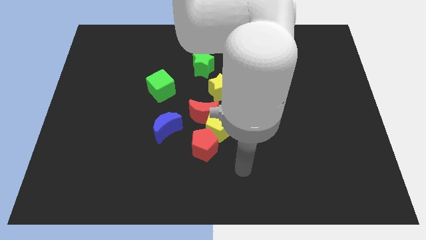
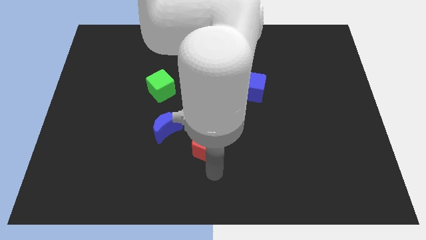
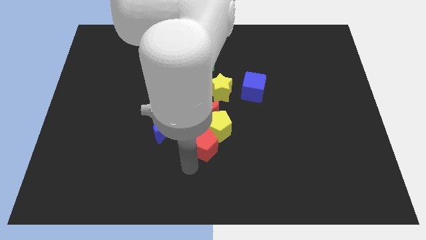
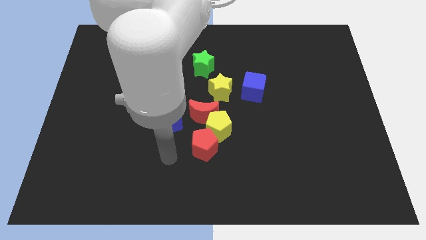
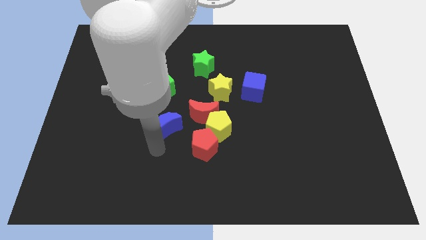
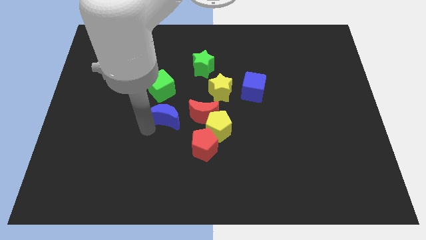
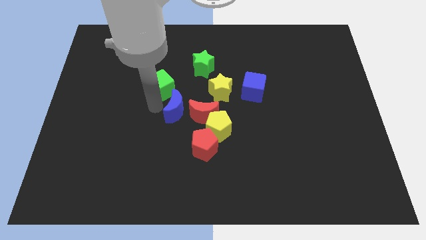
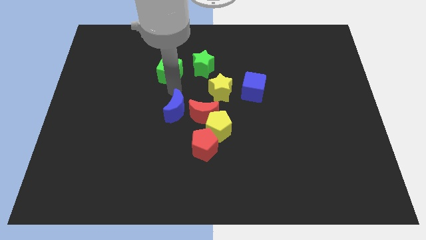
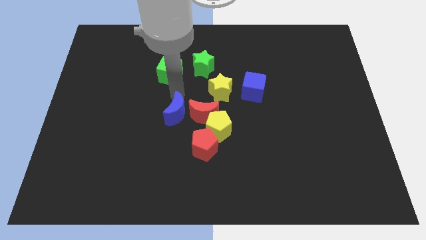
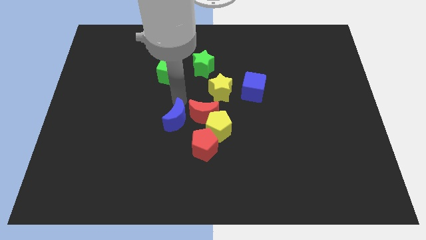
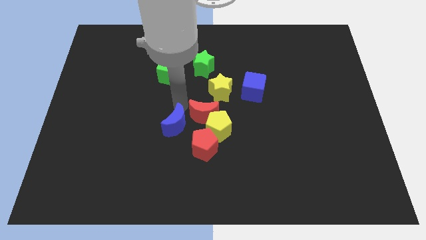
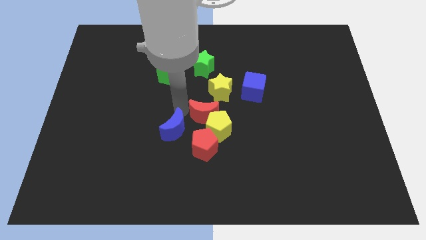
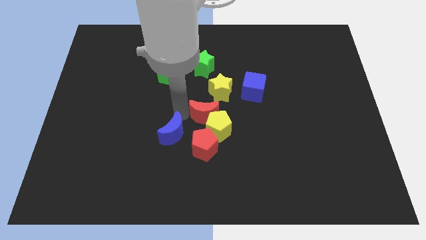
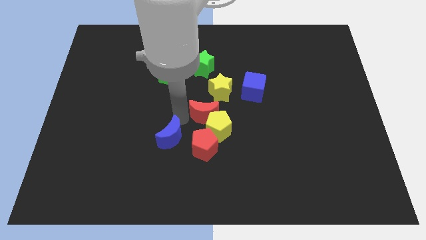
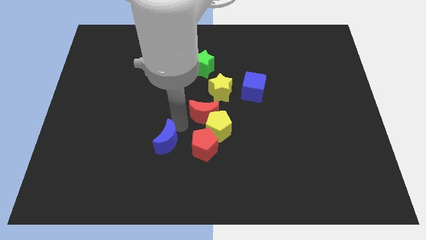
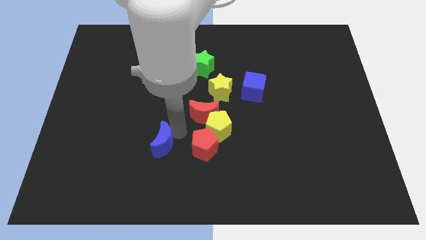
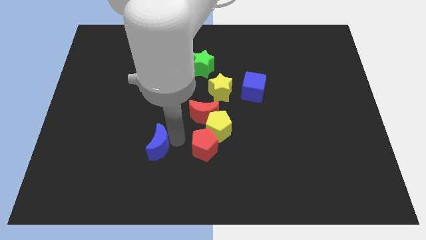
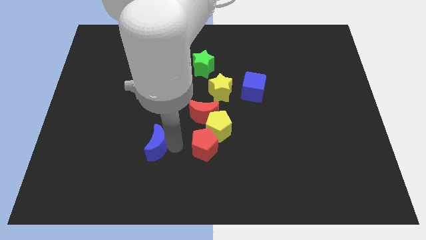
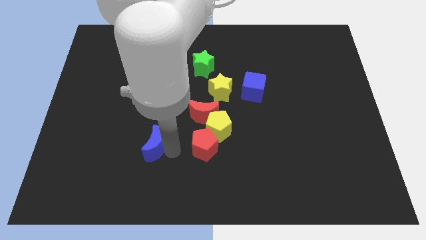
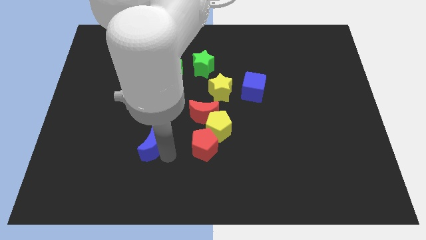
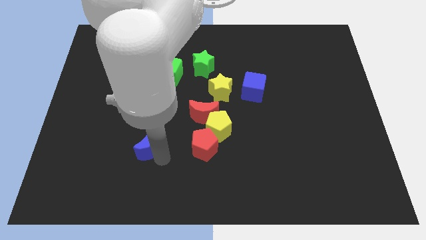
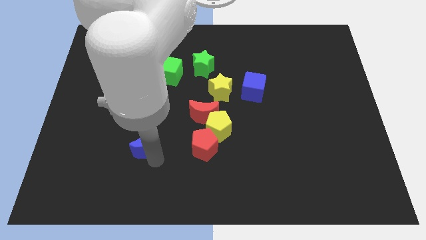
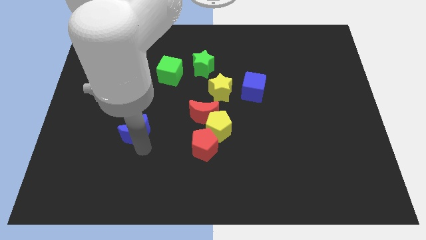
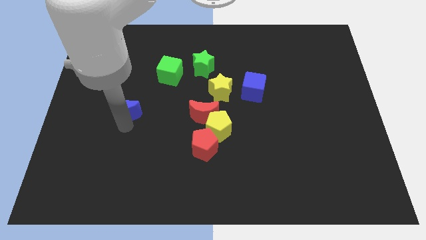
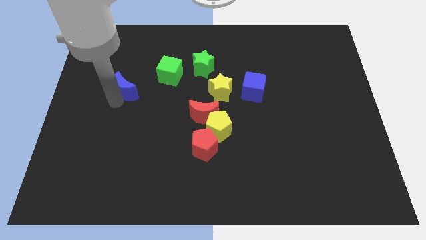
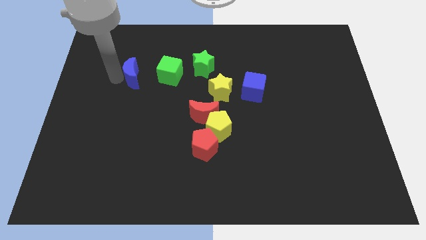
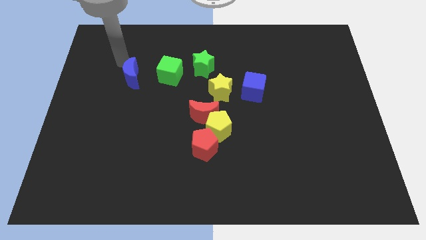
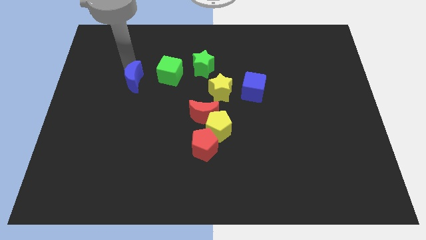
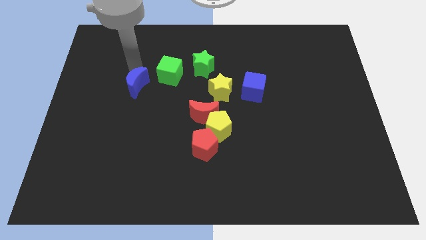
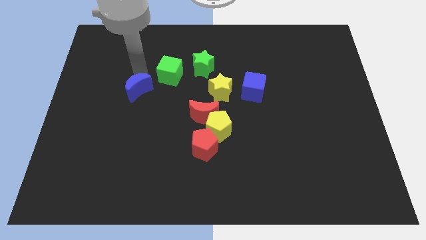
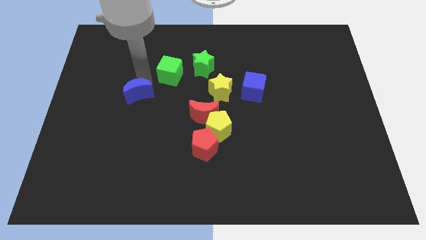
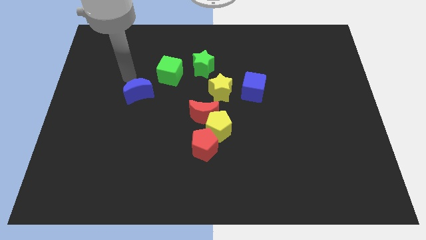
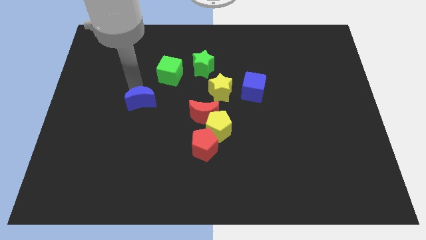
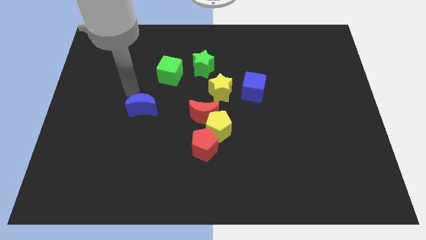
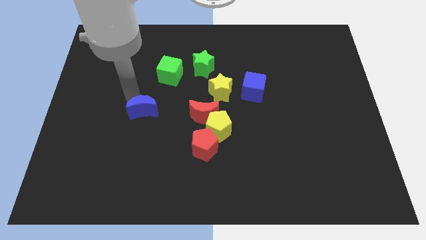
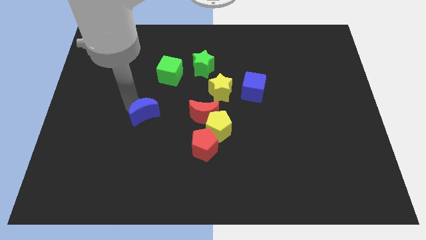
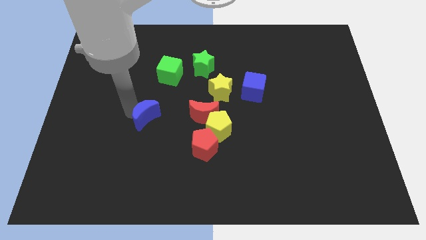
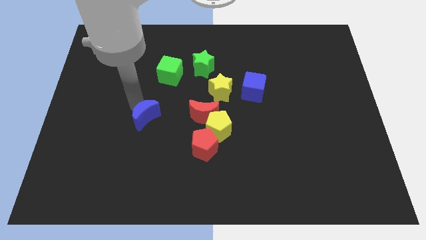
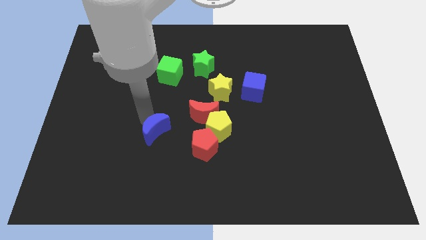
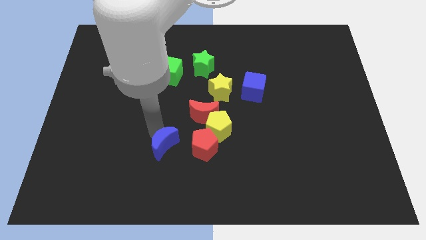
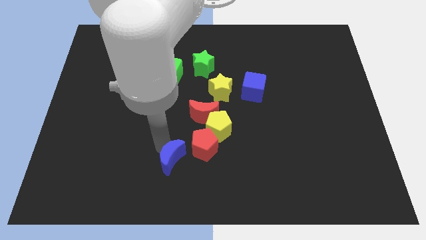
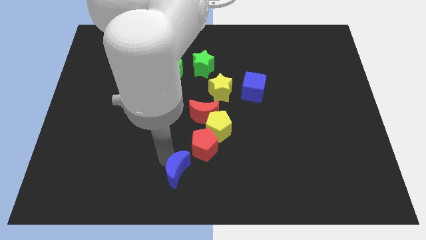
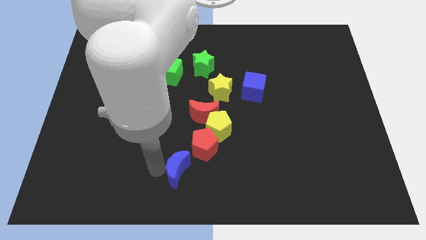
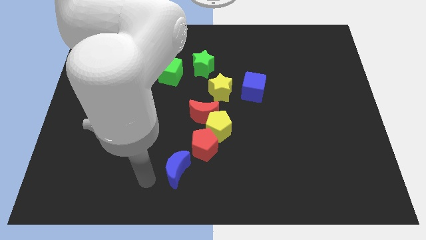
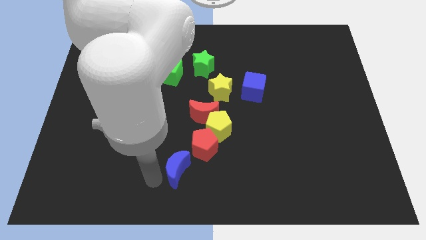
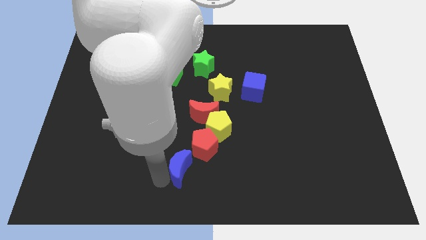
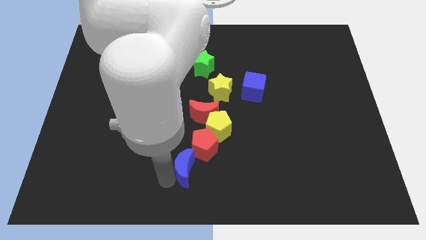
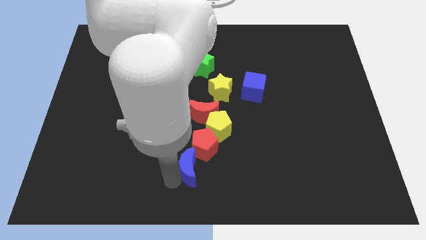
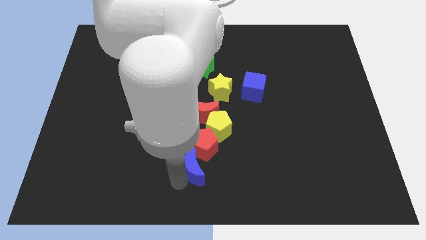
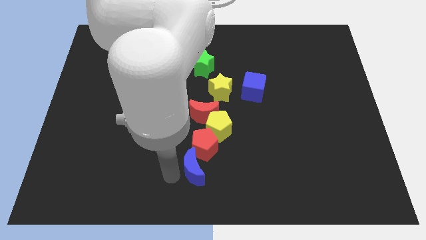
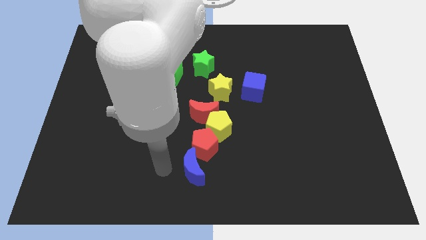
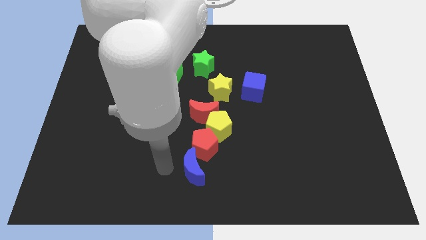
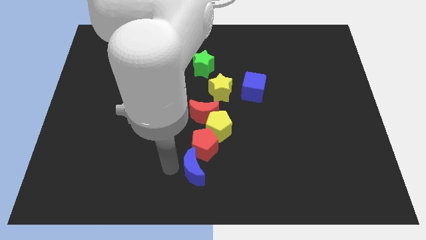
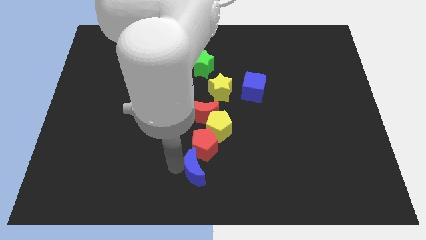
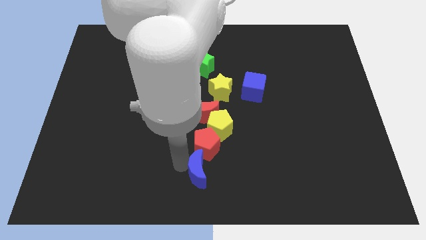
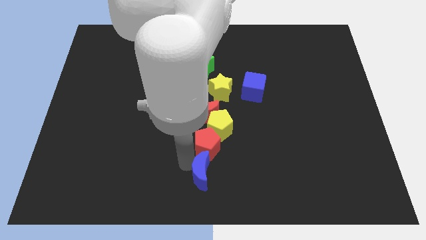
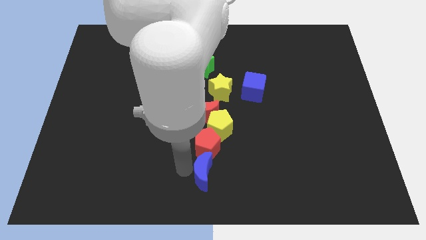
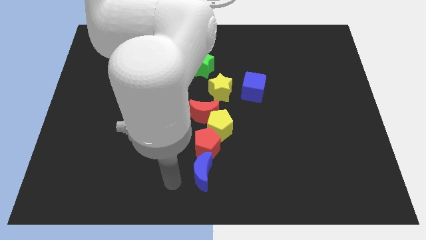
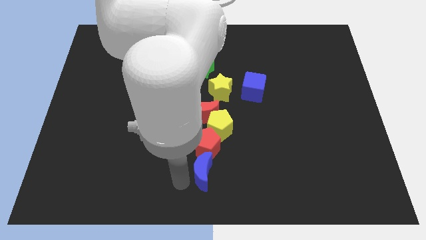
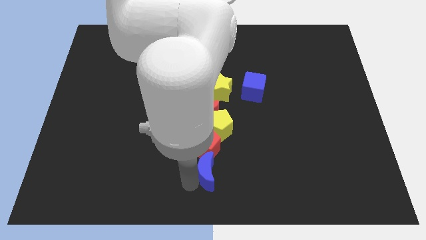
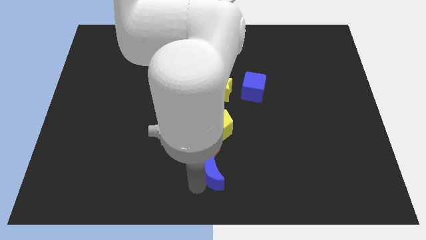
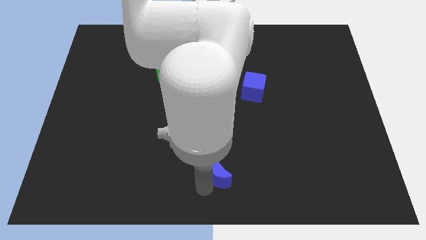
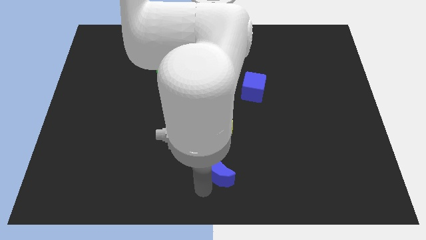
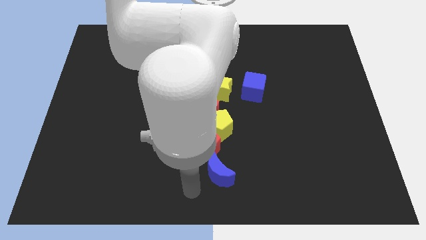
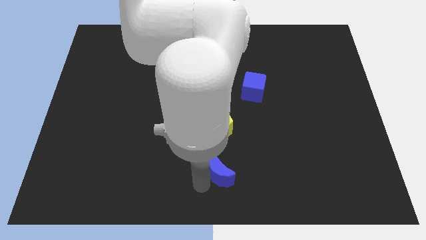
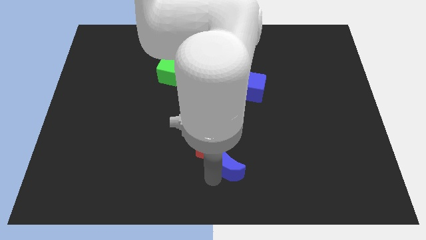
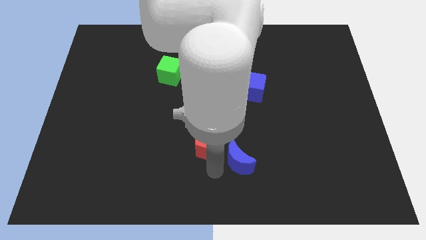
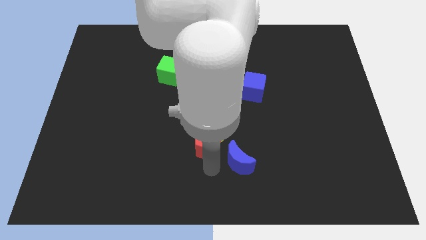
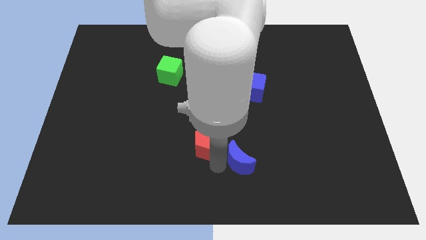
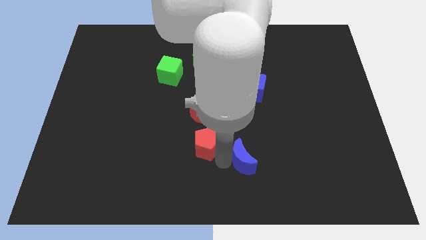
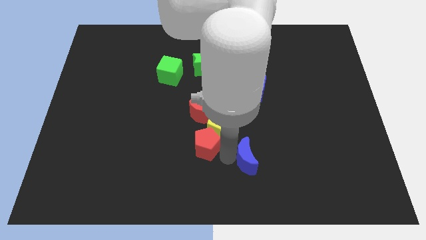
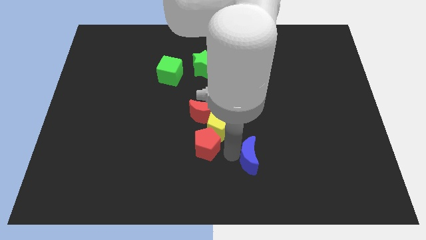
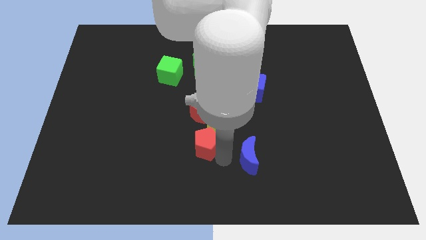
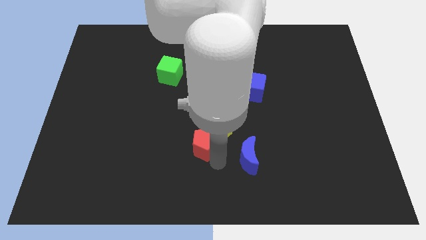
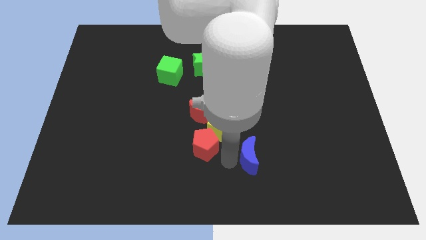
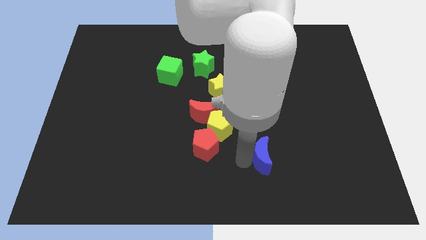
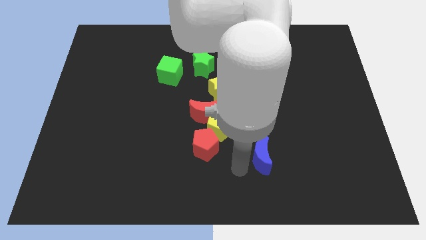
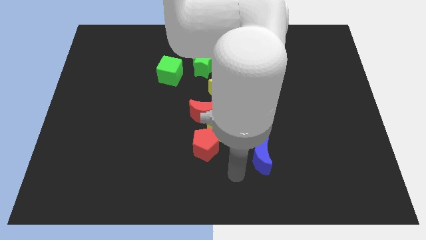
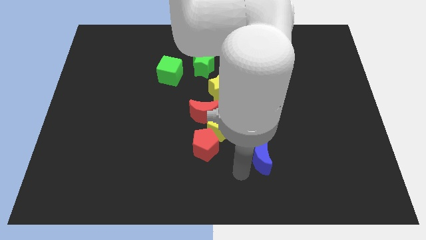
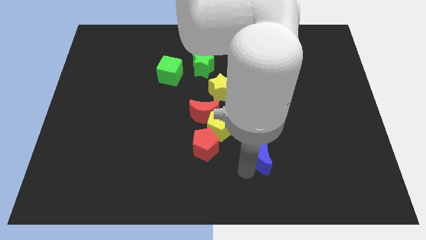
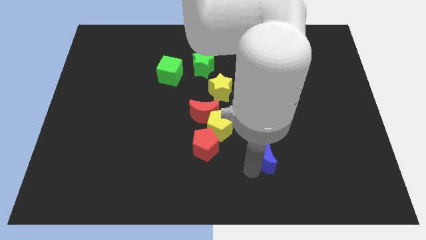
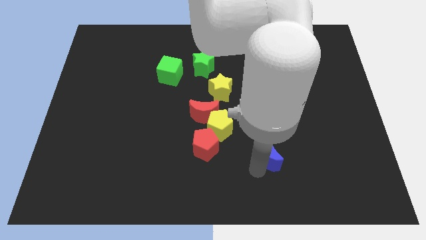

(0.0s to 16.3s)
move the blue moon right
